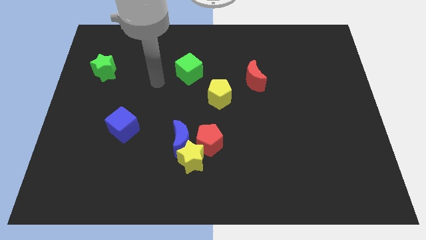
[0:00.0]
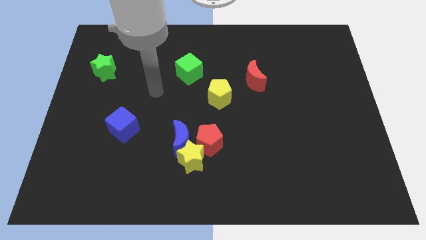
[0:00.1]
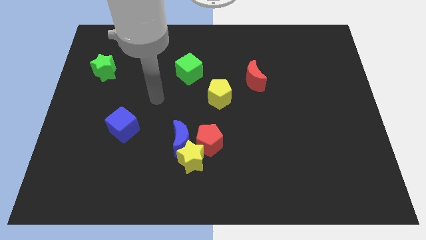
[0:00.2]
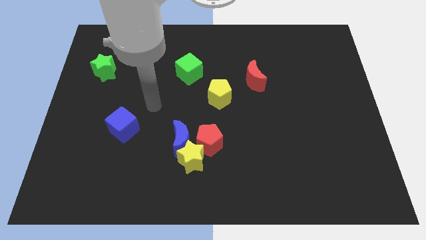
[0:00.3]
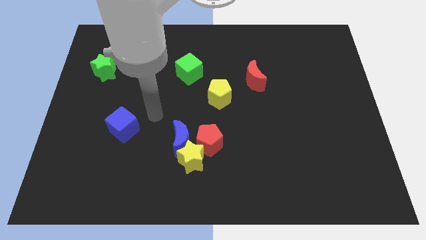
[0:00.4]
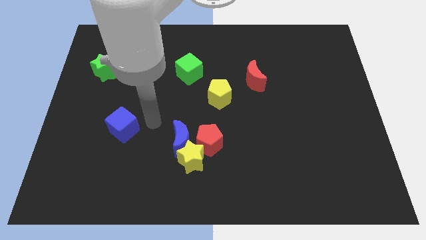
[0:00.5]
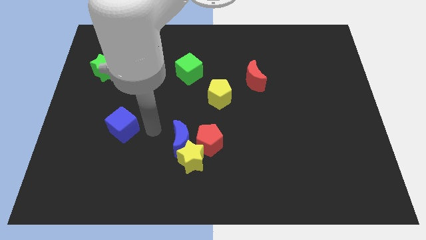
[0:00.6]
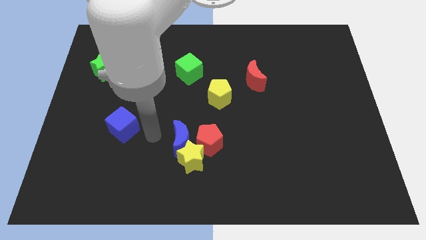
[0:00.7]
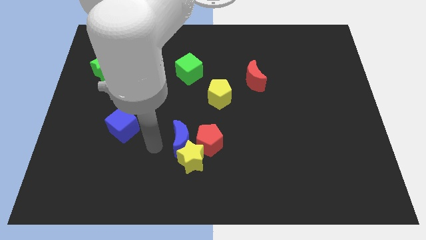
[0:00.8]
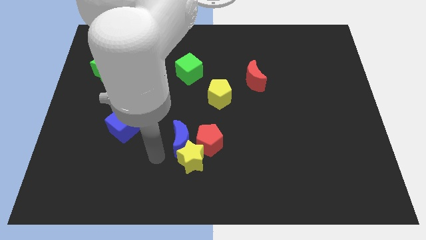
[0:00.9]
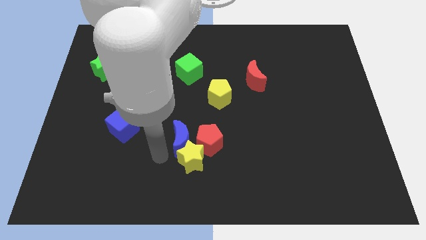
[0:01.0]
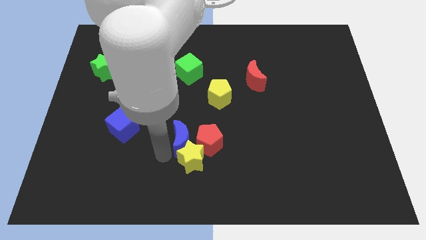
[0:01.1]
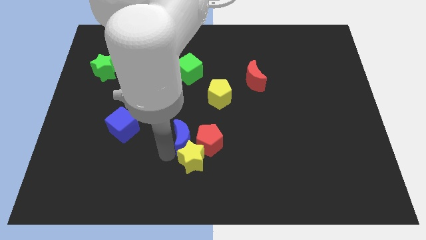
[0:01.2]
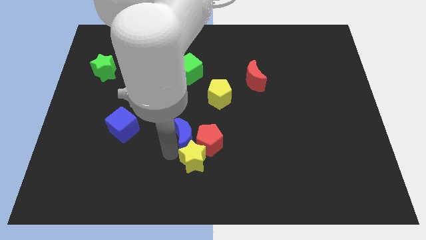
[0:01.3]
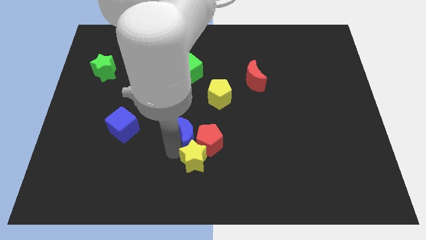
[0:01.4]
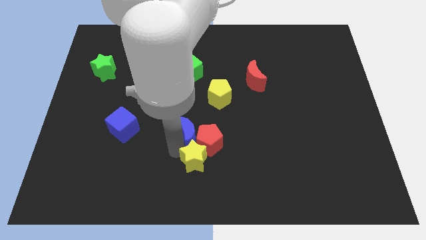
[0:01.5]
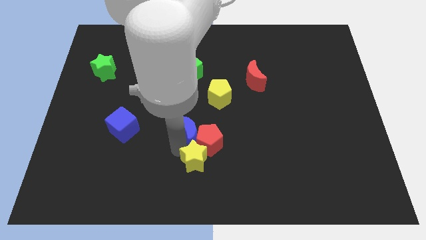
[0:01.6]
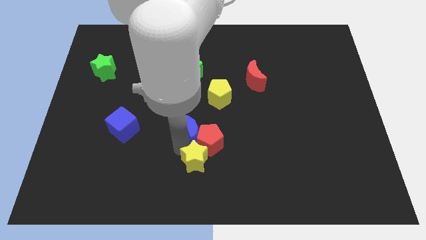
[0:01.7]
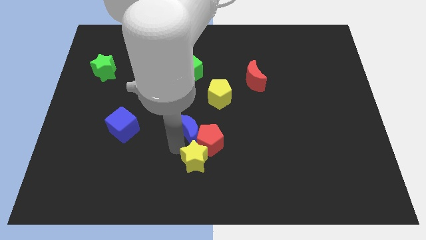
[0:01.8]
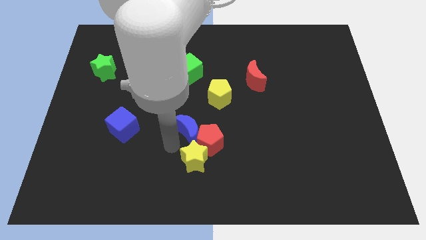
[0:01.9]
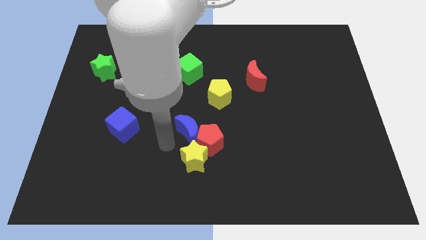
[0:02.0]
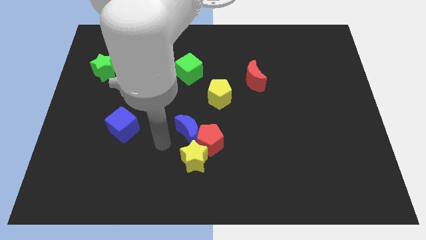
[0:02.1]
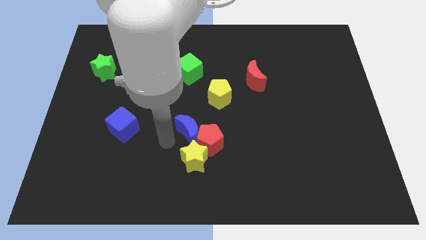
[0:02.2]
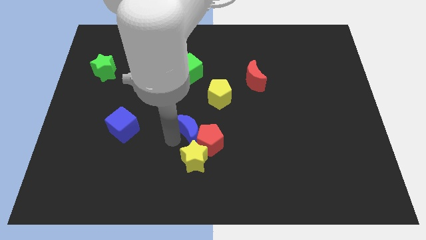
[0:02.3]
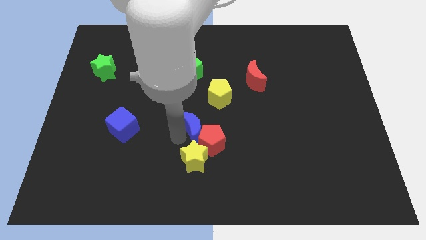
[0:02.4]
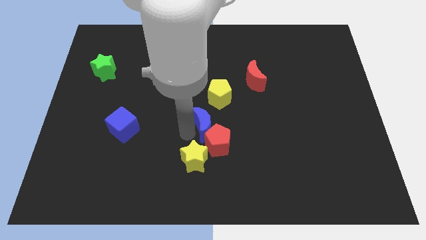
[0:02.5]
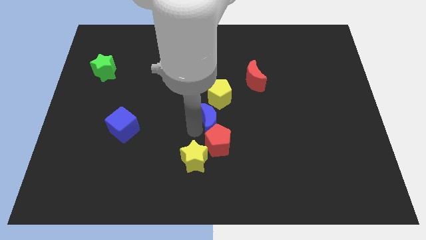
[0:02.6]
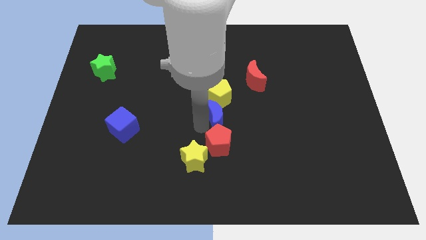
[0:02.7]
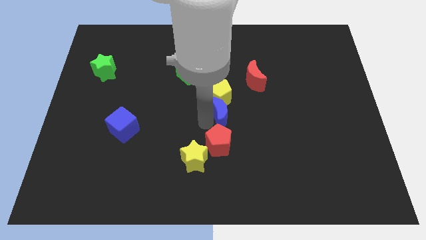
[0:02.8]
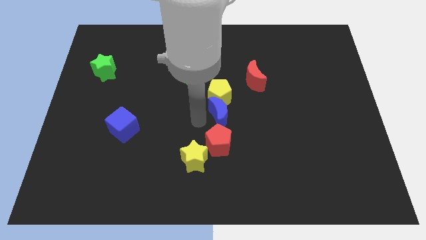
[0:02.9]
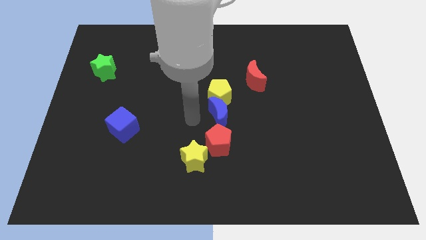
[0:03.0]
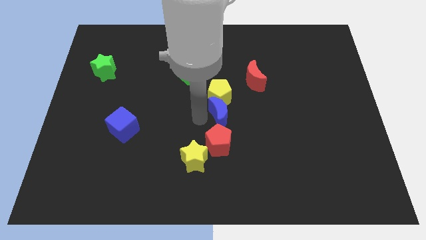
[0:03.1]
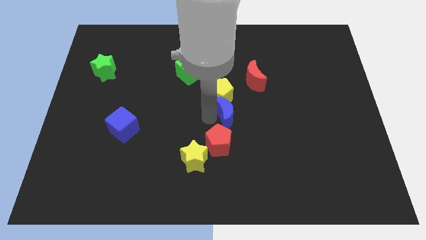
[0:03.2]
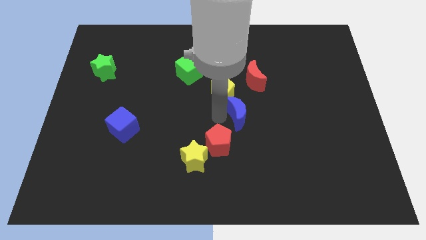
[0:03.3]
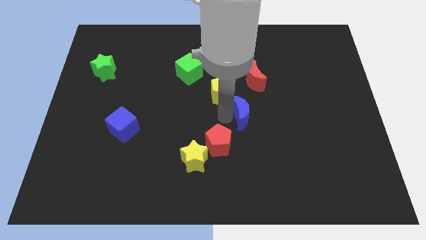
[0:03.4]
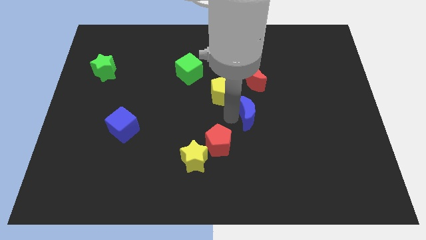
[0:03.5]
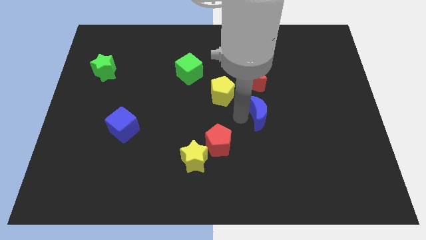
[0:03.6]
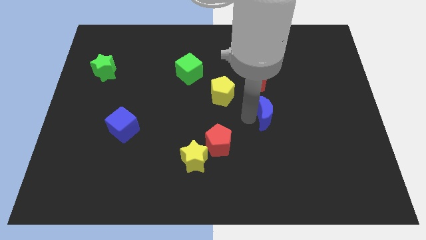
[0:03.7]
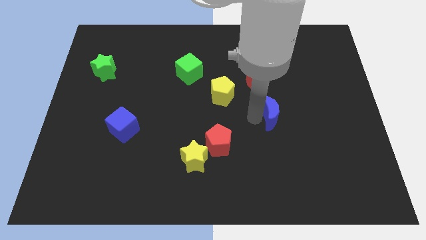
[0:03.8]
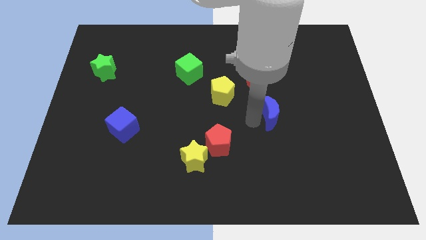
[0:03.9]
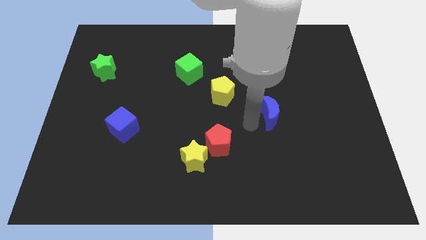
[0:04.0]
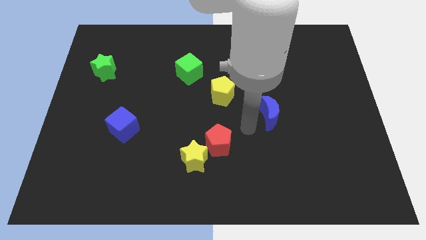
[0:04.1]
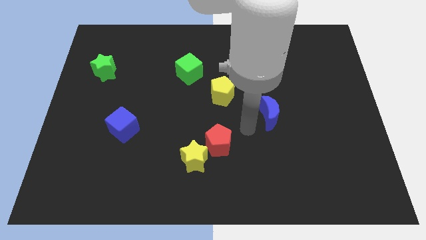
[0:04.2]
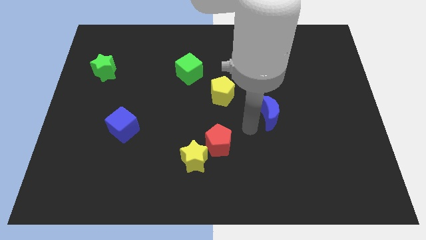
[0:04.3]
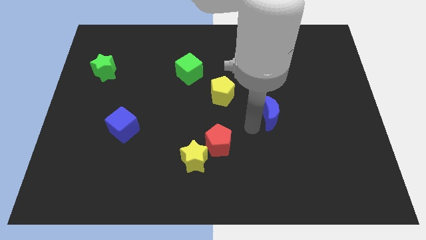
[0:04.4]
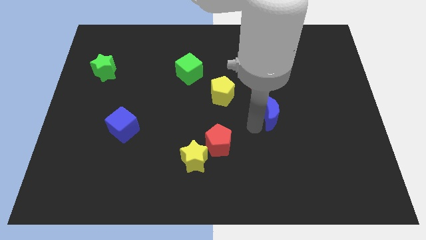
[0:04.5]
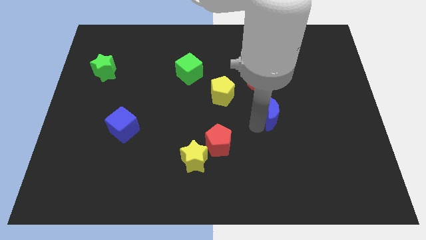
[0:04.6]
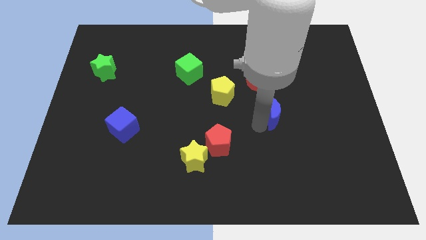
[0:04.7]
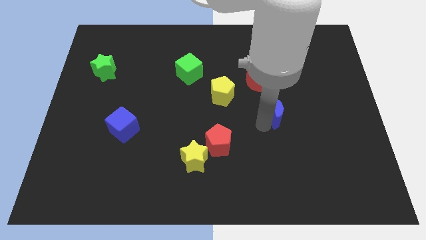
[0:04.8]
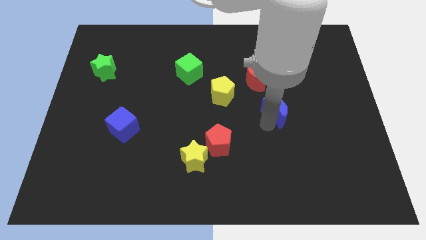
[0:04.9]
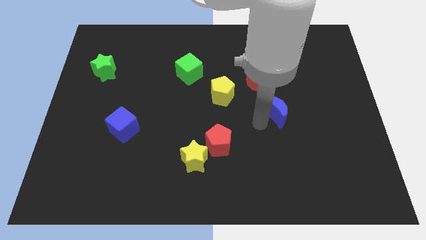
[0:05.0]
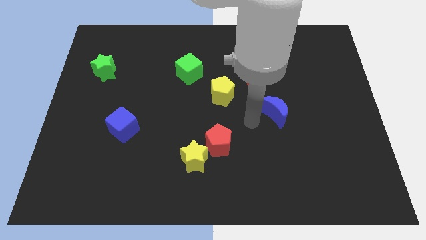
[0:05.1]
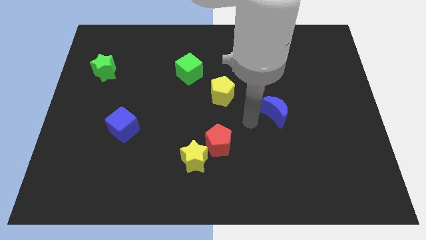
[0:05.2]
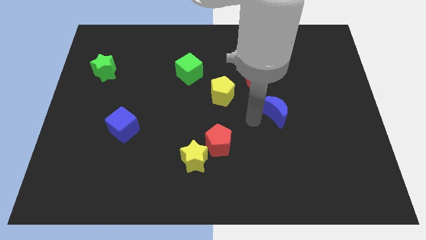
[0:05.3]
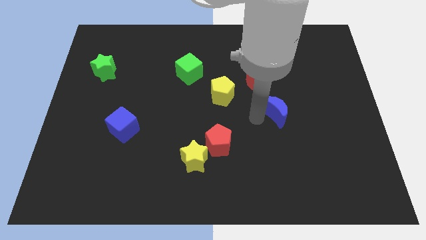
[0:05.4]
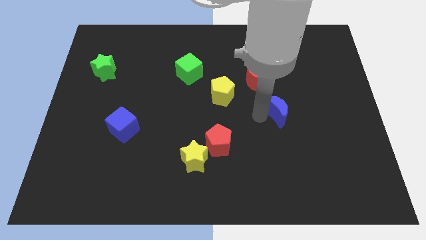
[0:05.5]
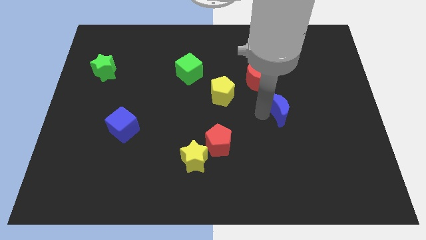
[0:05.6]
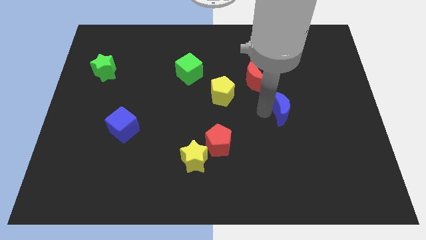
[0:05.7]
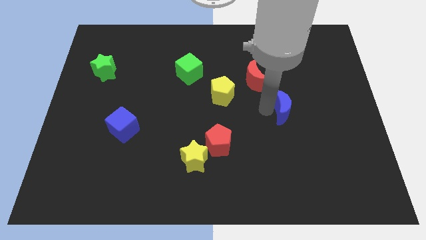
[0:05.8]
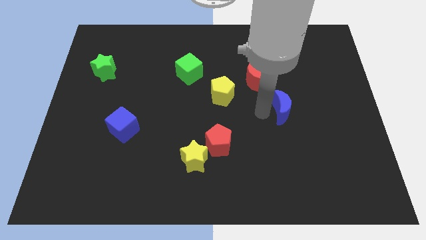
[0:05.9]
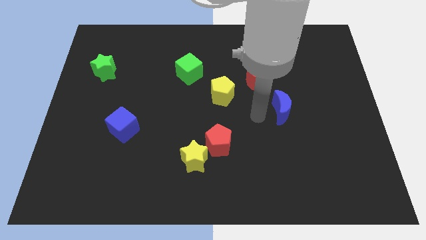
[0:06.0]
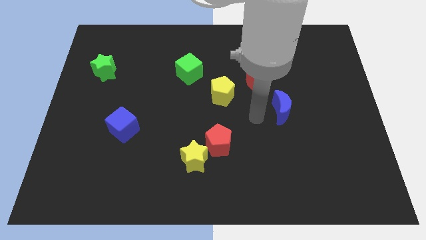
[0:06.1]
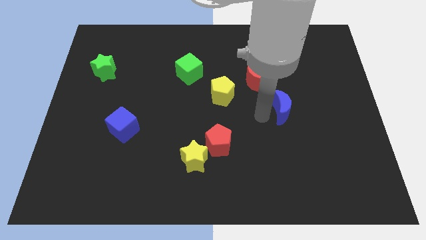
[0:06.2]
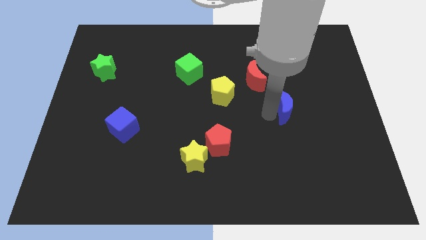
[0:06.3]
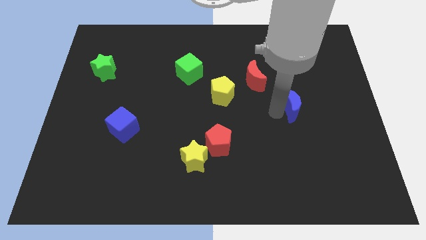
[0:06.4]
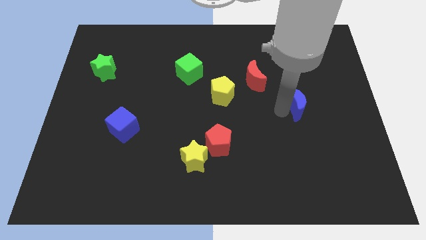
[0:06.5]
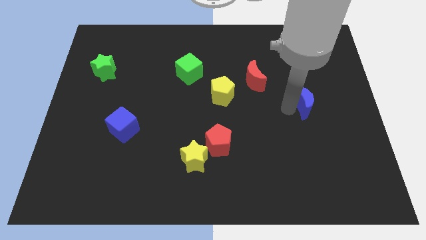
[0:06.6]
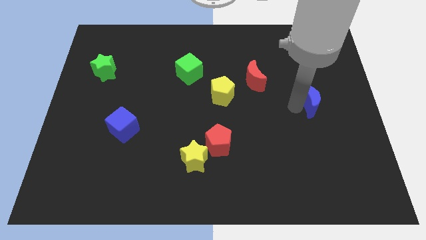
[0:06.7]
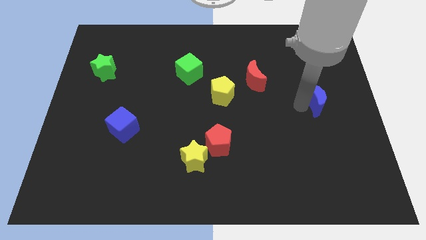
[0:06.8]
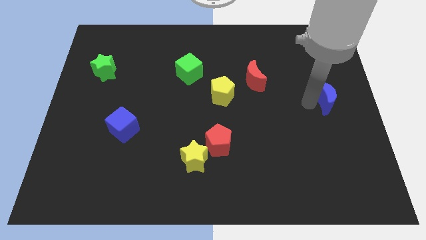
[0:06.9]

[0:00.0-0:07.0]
push the blue moon to the right side
